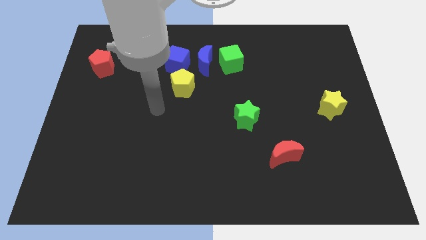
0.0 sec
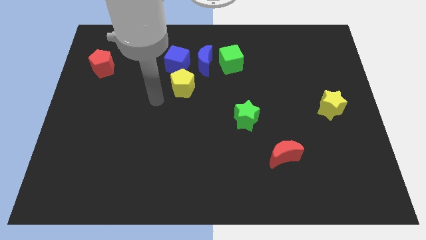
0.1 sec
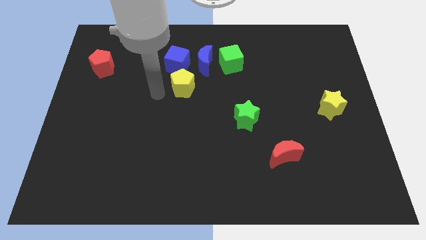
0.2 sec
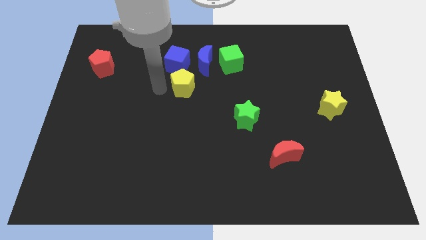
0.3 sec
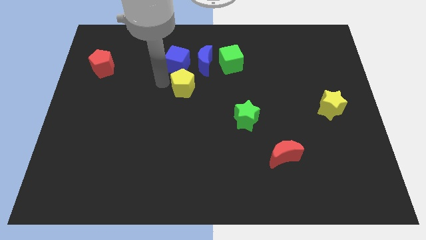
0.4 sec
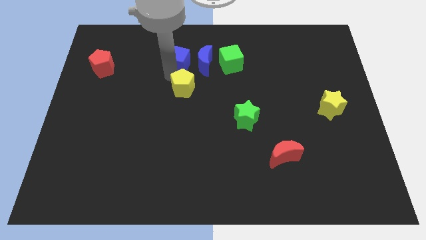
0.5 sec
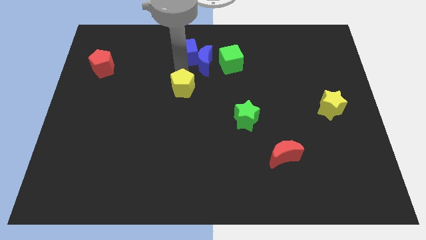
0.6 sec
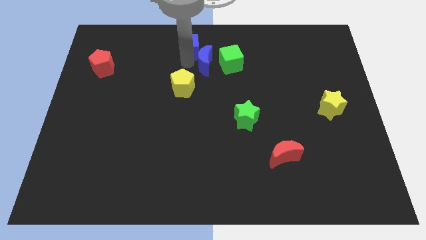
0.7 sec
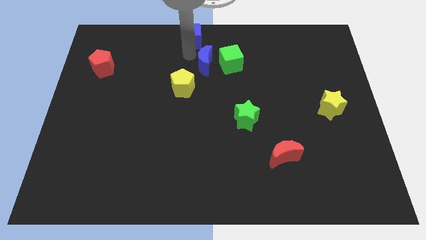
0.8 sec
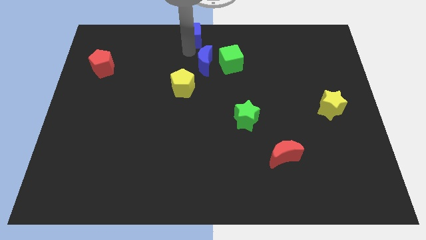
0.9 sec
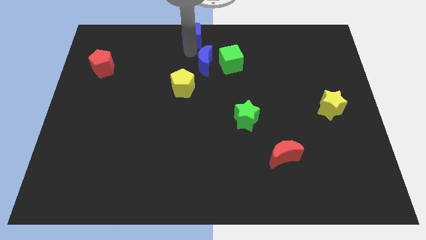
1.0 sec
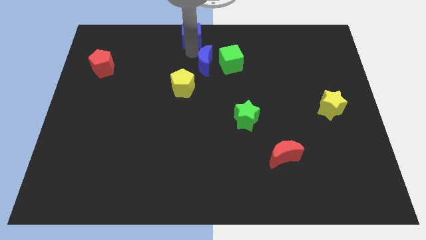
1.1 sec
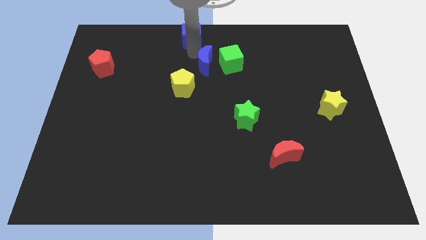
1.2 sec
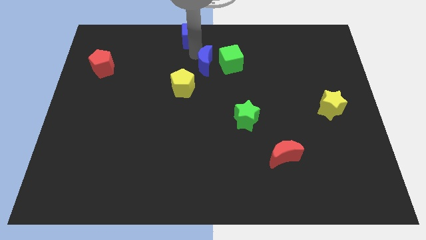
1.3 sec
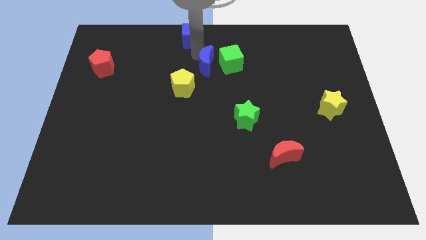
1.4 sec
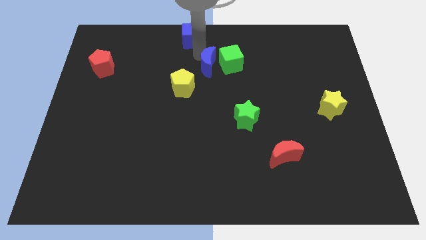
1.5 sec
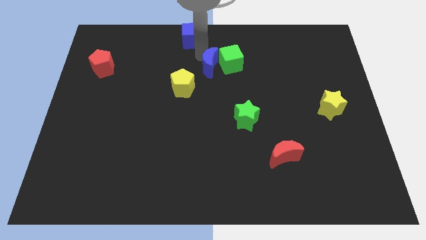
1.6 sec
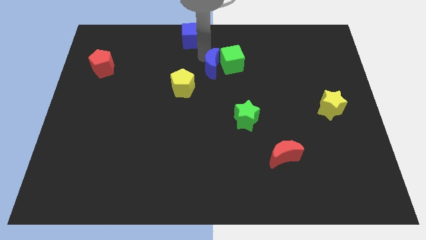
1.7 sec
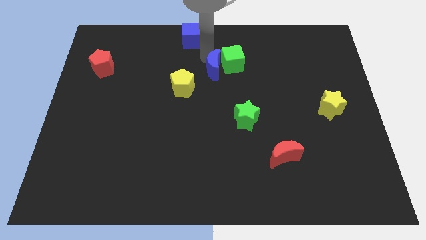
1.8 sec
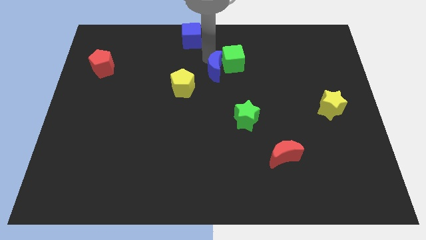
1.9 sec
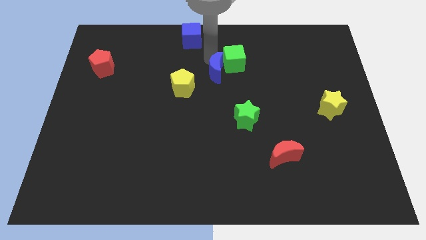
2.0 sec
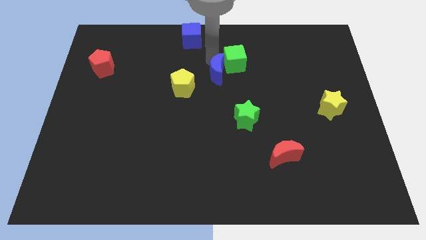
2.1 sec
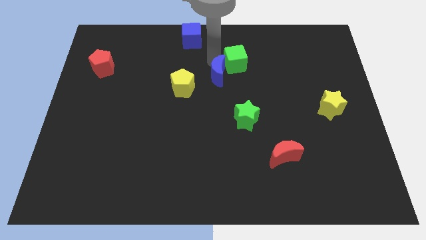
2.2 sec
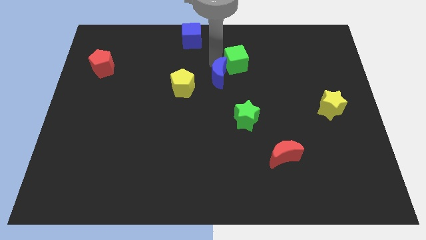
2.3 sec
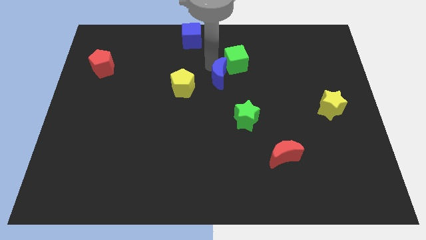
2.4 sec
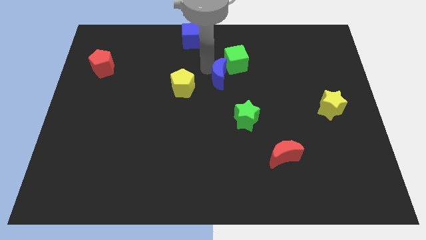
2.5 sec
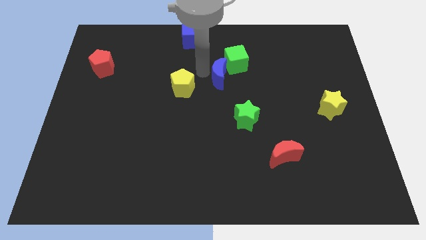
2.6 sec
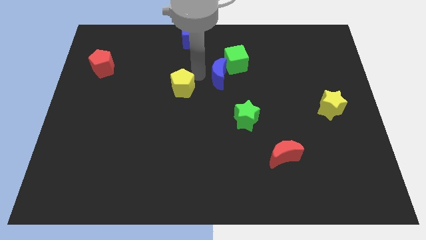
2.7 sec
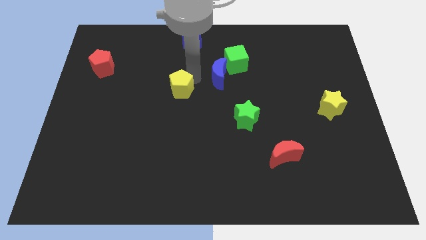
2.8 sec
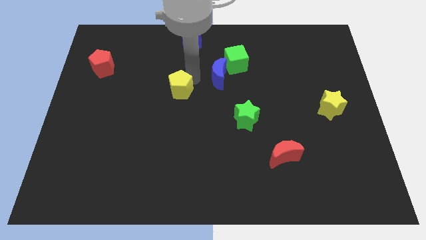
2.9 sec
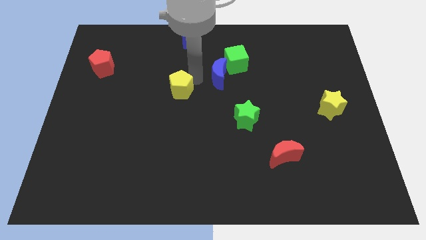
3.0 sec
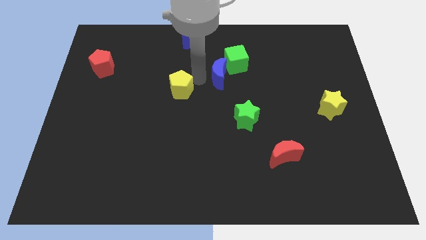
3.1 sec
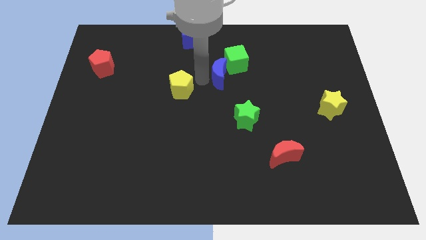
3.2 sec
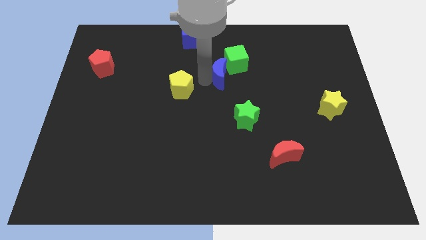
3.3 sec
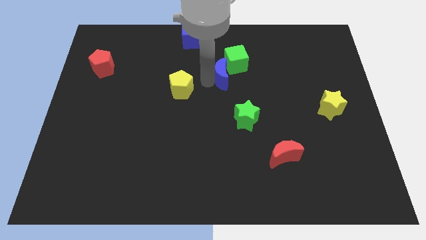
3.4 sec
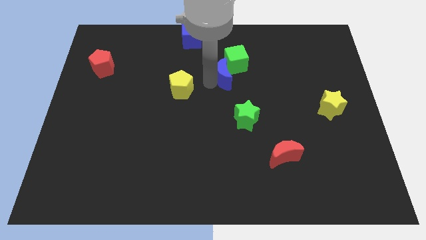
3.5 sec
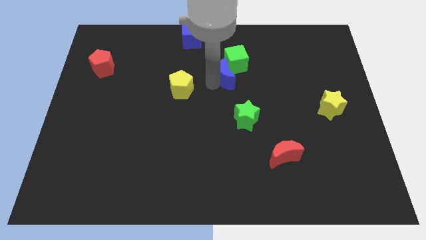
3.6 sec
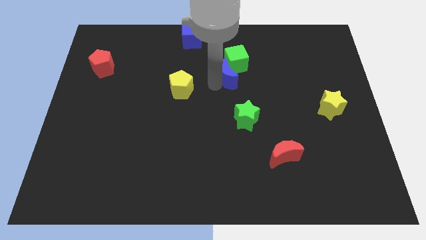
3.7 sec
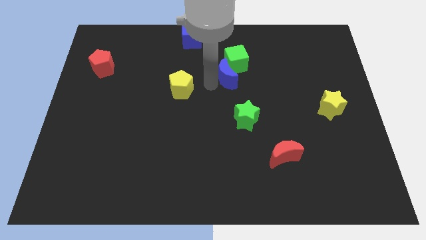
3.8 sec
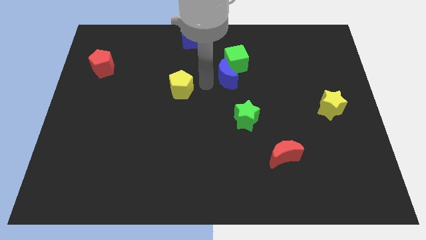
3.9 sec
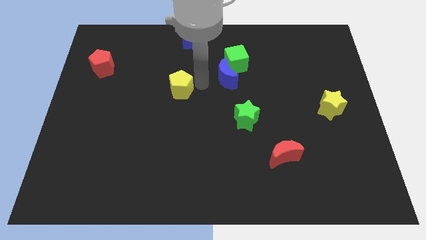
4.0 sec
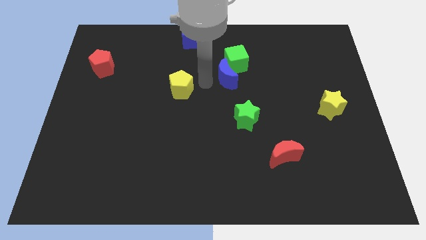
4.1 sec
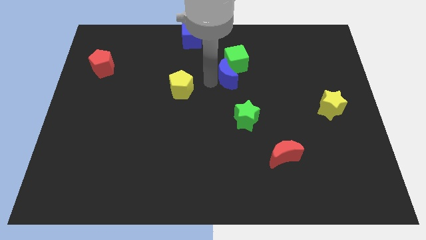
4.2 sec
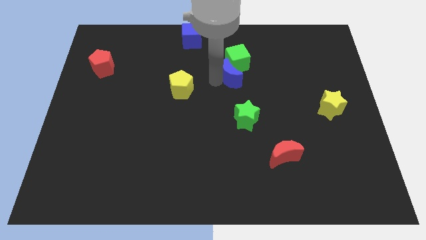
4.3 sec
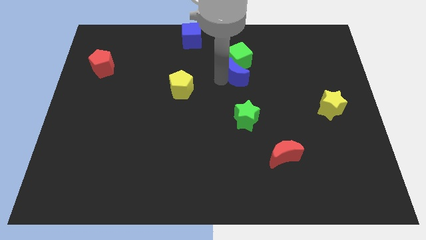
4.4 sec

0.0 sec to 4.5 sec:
slightly slide the blue moon to the right

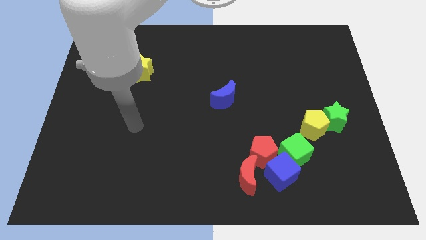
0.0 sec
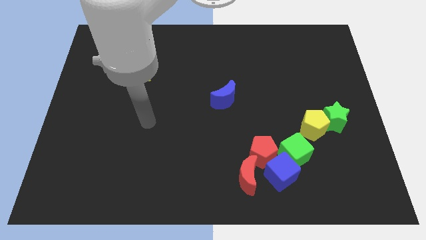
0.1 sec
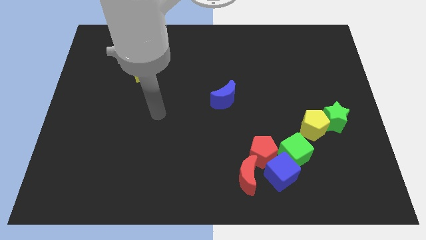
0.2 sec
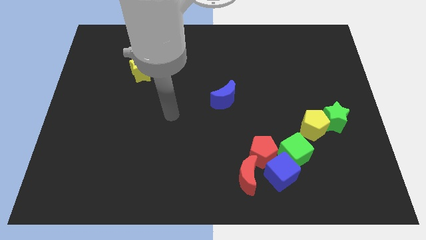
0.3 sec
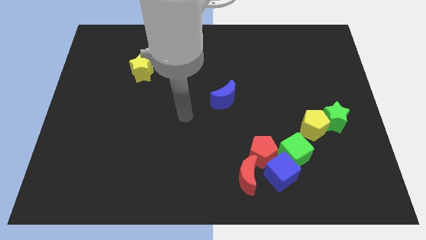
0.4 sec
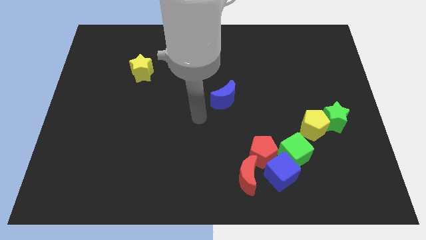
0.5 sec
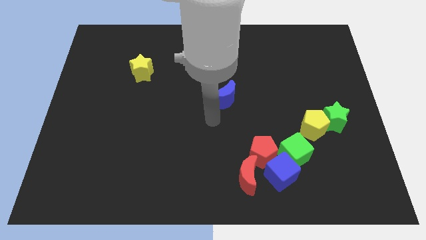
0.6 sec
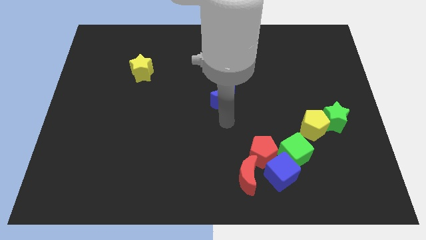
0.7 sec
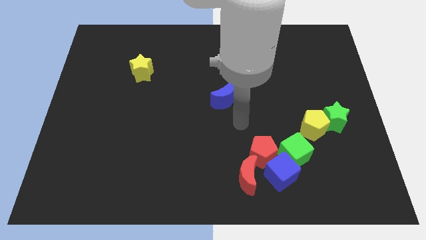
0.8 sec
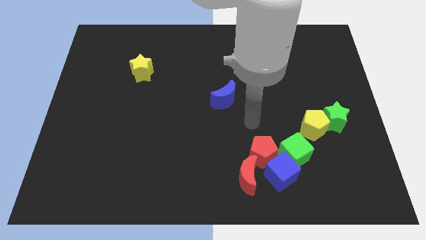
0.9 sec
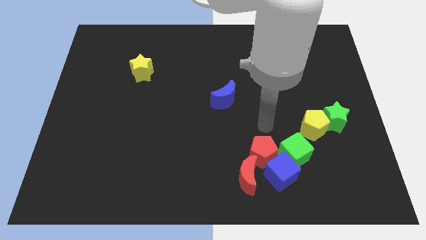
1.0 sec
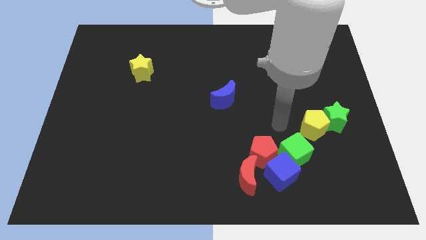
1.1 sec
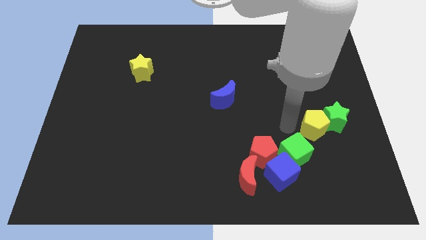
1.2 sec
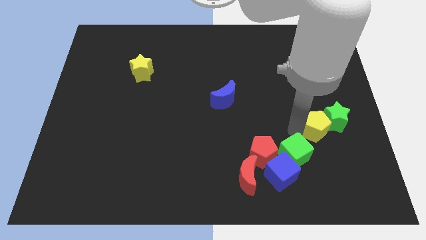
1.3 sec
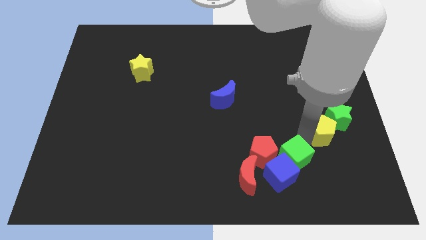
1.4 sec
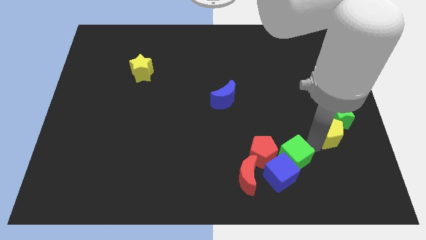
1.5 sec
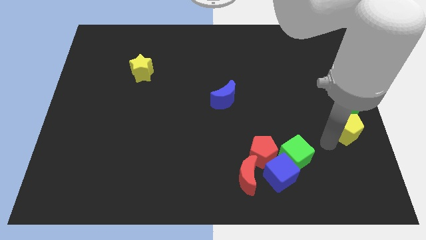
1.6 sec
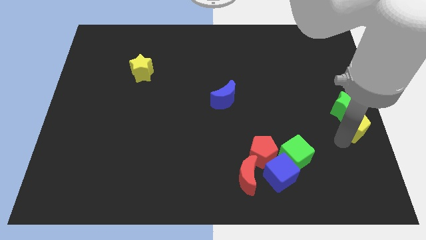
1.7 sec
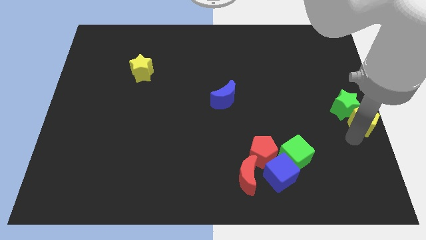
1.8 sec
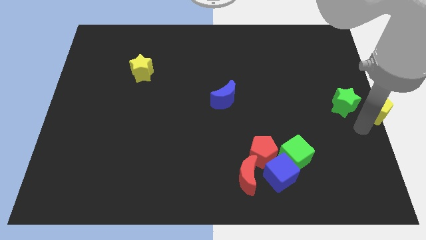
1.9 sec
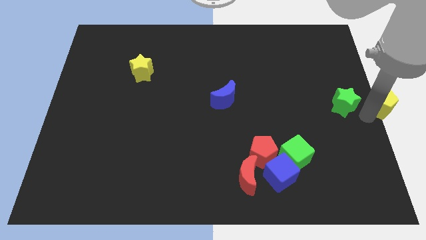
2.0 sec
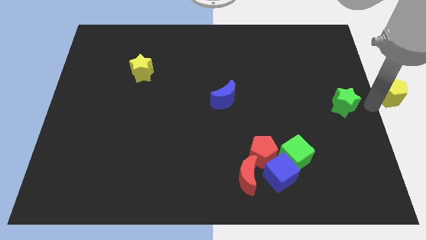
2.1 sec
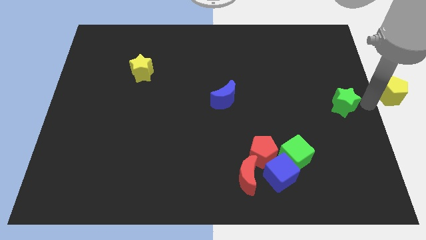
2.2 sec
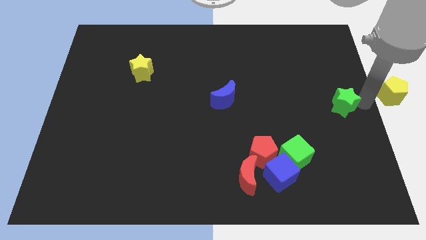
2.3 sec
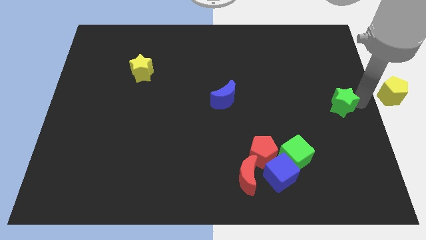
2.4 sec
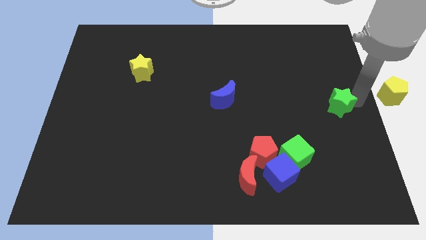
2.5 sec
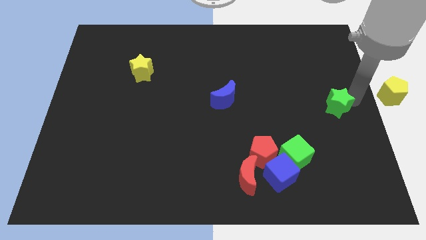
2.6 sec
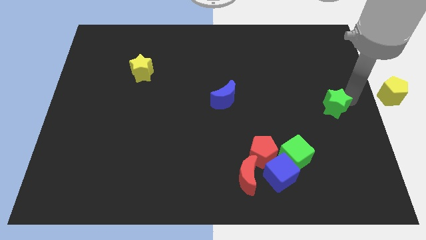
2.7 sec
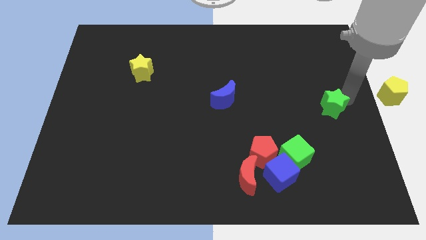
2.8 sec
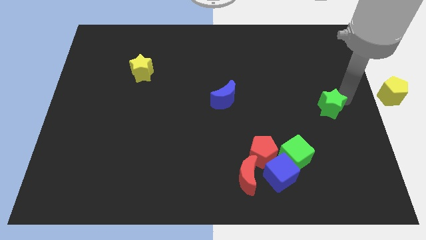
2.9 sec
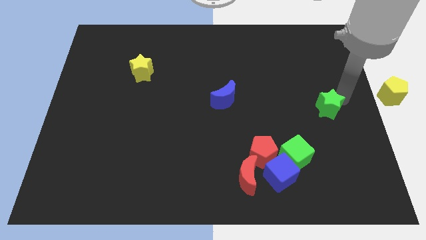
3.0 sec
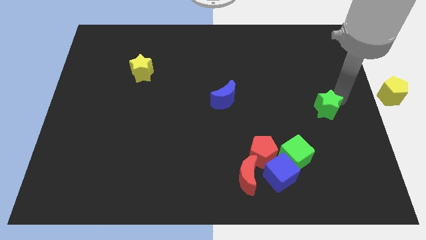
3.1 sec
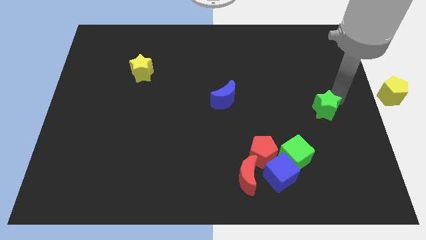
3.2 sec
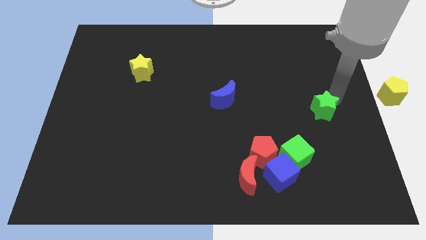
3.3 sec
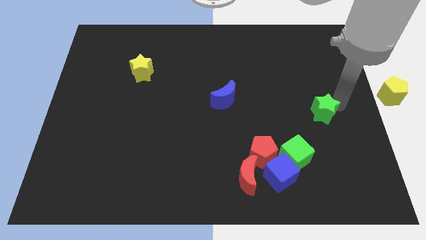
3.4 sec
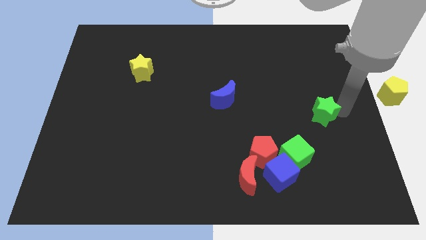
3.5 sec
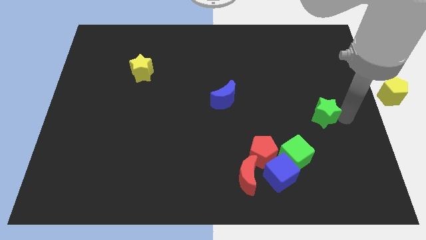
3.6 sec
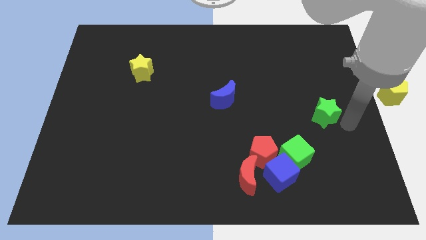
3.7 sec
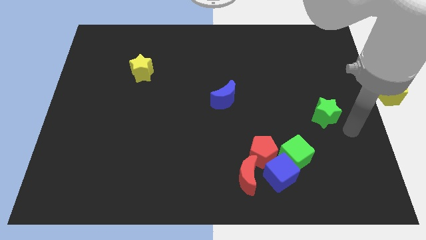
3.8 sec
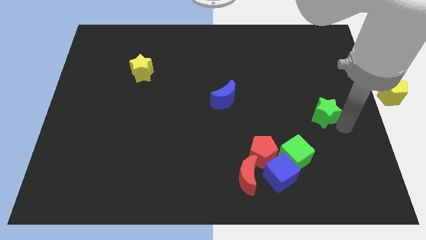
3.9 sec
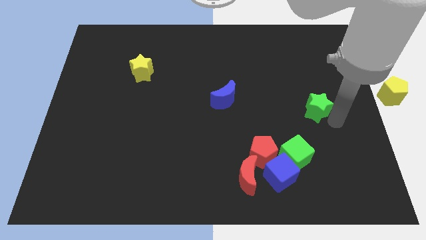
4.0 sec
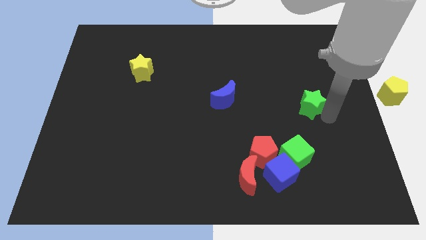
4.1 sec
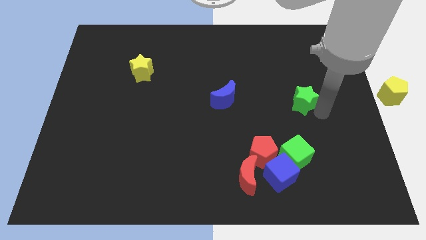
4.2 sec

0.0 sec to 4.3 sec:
slightly push the green star up and then to the left
